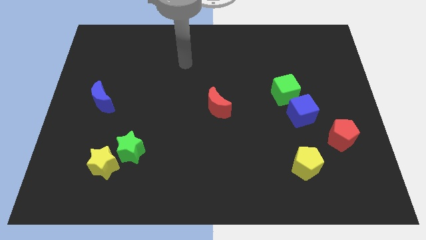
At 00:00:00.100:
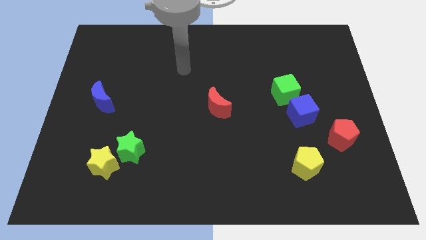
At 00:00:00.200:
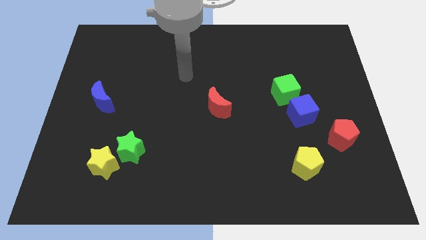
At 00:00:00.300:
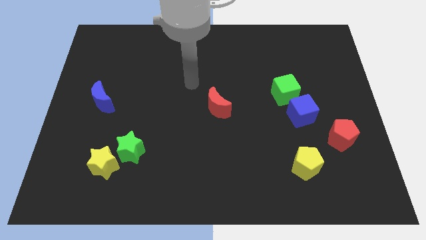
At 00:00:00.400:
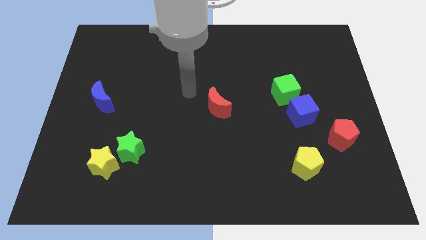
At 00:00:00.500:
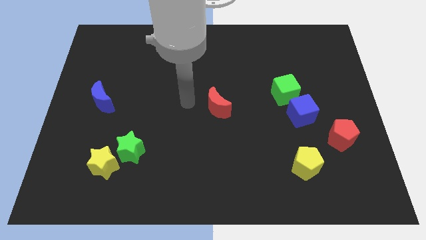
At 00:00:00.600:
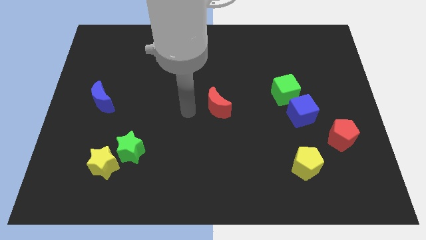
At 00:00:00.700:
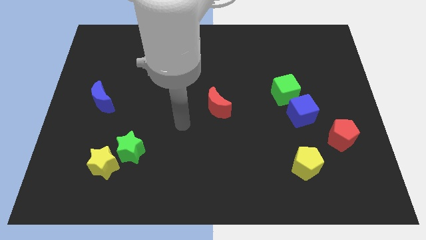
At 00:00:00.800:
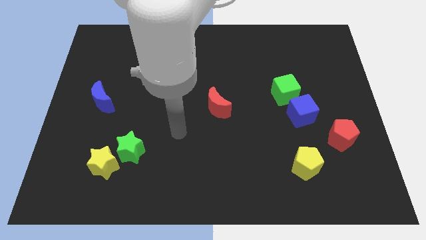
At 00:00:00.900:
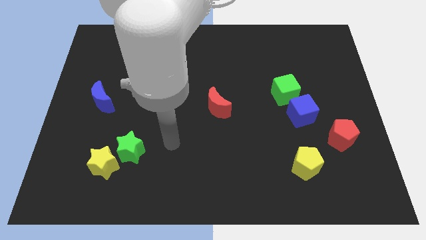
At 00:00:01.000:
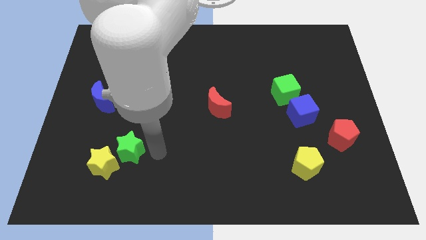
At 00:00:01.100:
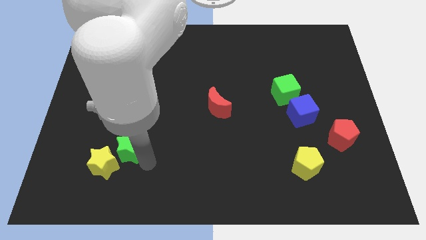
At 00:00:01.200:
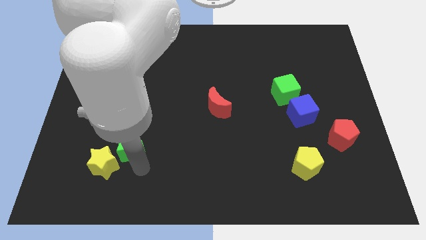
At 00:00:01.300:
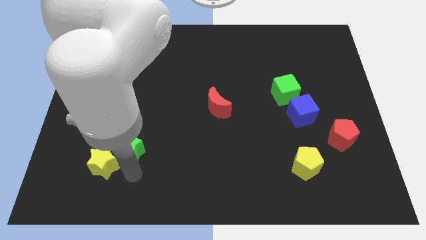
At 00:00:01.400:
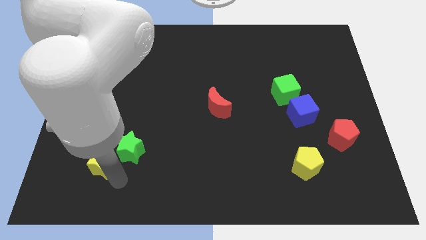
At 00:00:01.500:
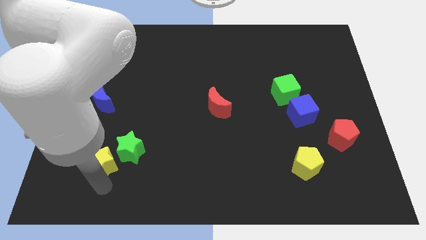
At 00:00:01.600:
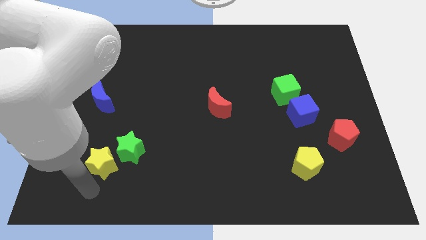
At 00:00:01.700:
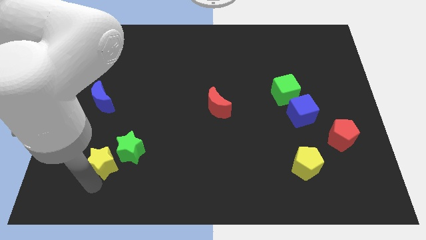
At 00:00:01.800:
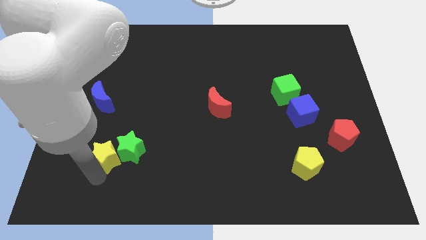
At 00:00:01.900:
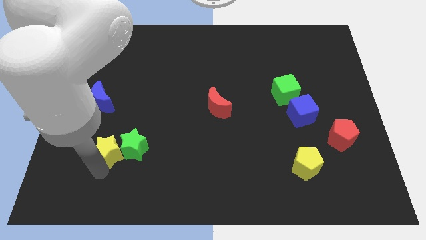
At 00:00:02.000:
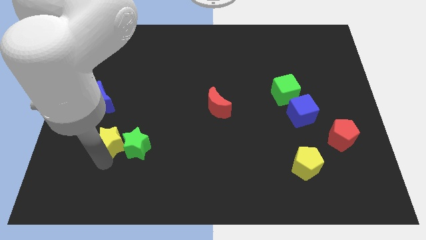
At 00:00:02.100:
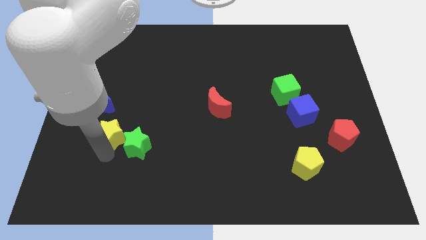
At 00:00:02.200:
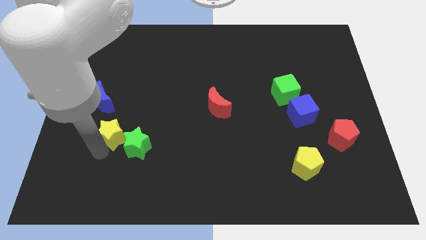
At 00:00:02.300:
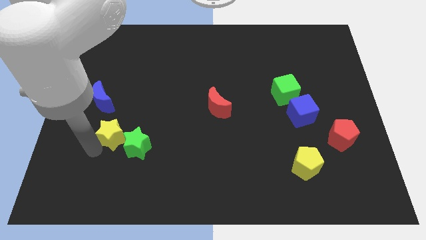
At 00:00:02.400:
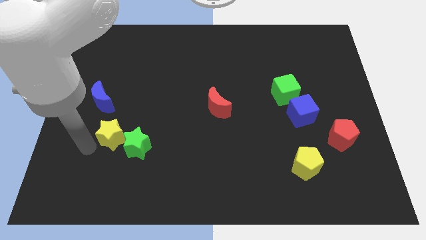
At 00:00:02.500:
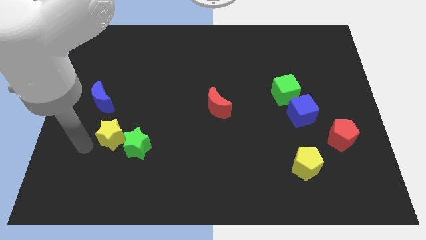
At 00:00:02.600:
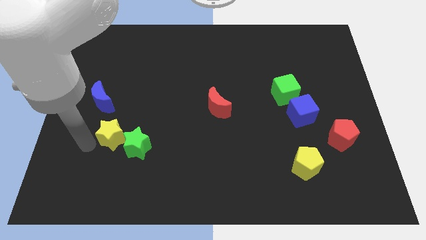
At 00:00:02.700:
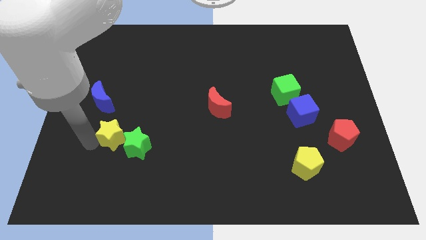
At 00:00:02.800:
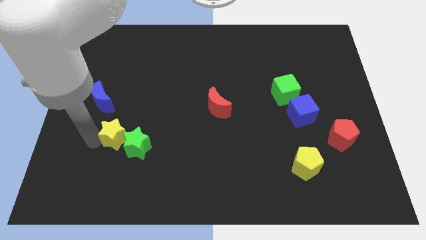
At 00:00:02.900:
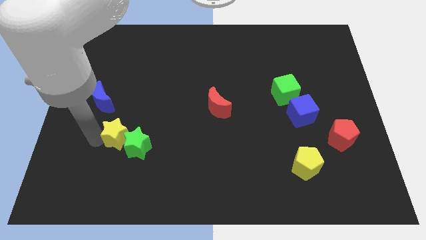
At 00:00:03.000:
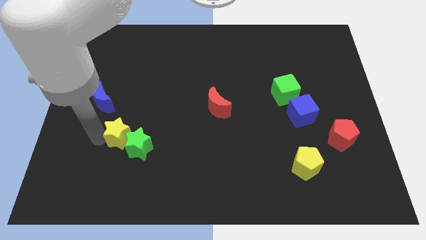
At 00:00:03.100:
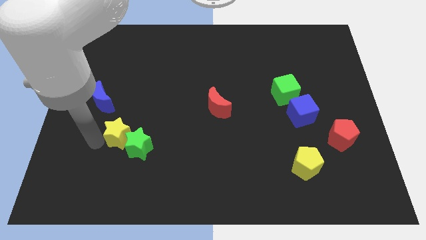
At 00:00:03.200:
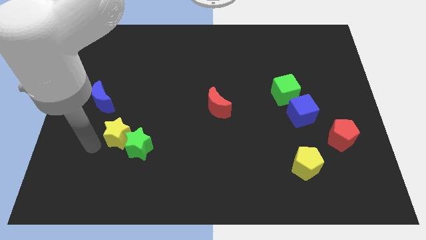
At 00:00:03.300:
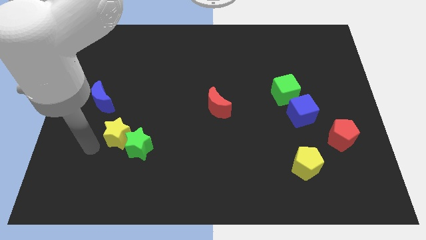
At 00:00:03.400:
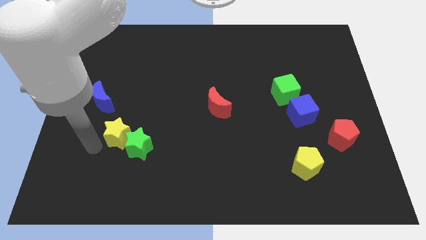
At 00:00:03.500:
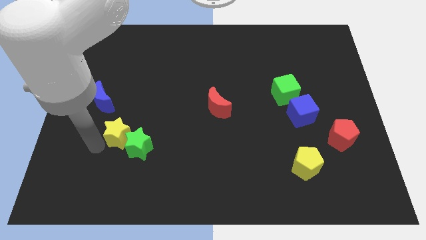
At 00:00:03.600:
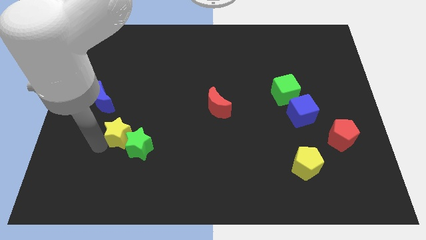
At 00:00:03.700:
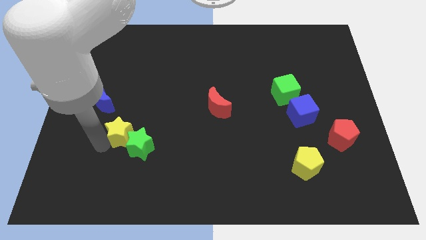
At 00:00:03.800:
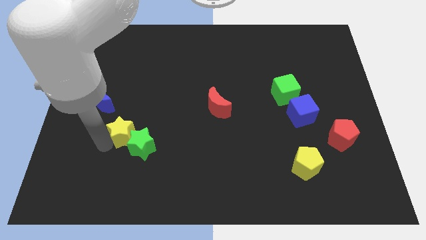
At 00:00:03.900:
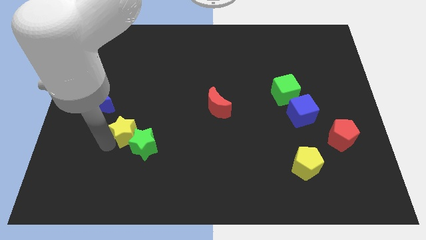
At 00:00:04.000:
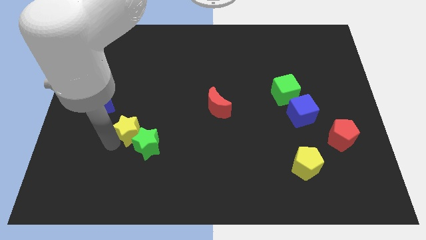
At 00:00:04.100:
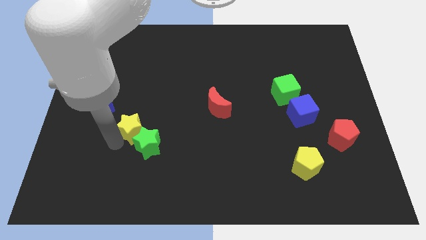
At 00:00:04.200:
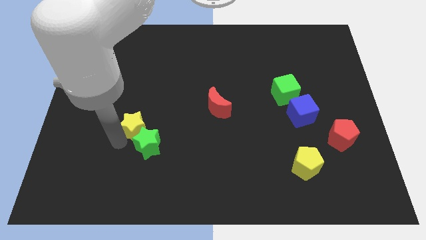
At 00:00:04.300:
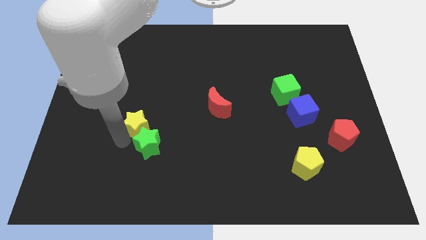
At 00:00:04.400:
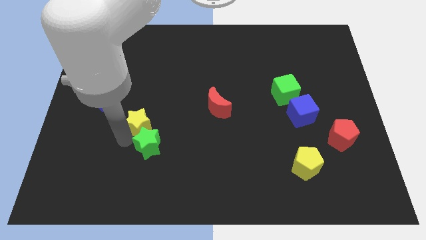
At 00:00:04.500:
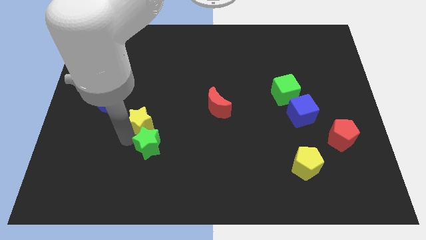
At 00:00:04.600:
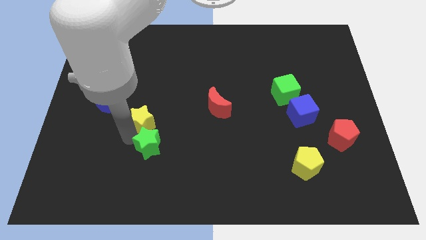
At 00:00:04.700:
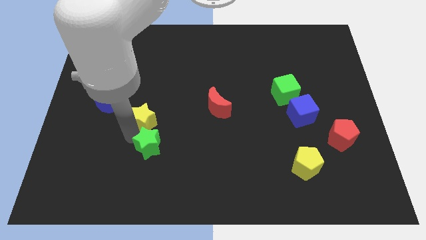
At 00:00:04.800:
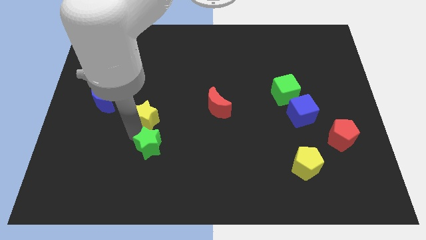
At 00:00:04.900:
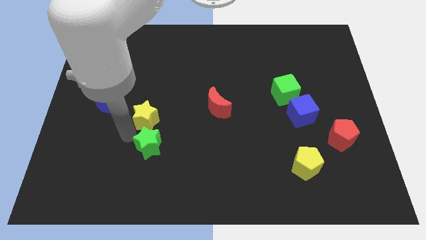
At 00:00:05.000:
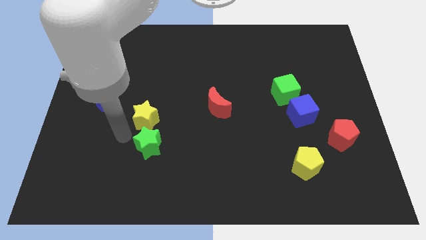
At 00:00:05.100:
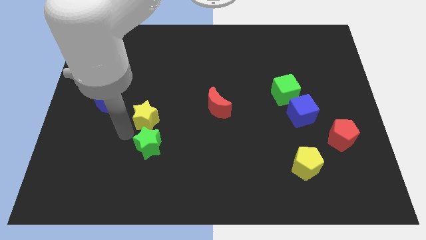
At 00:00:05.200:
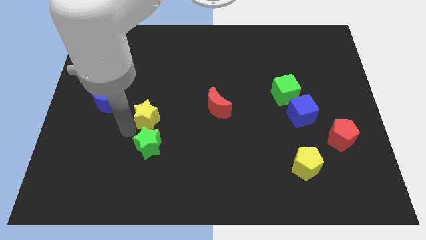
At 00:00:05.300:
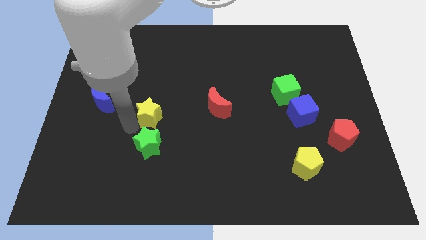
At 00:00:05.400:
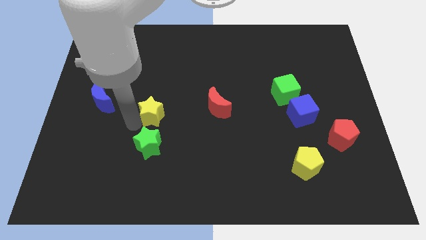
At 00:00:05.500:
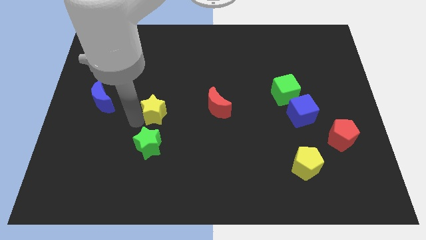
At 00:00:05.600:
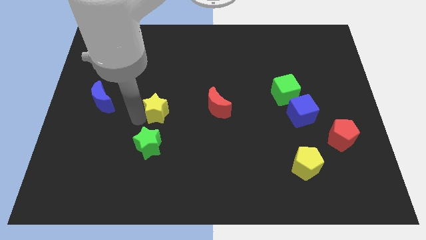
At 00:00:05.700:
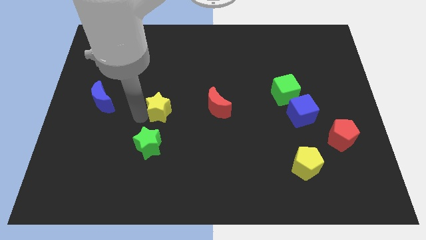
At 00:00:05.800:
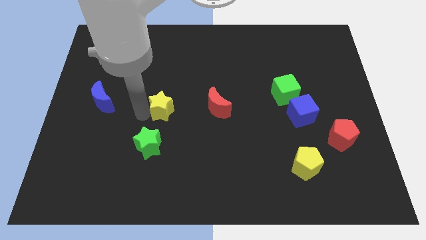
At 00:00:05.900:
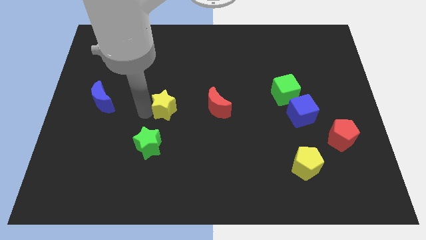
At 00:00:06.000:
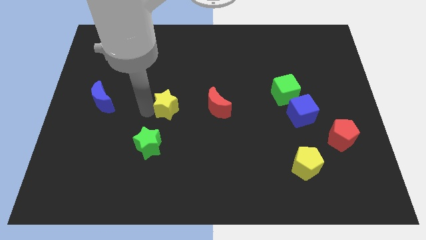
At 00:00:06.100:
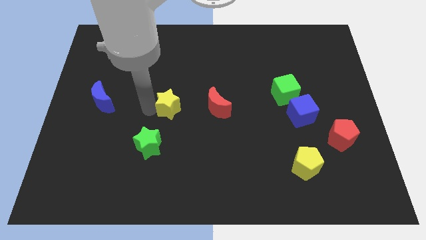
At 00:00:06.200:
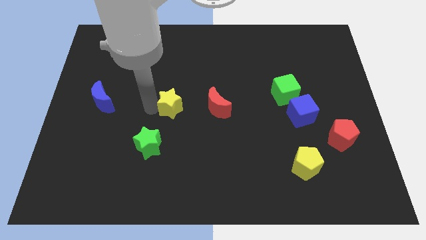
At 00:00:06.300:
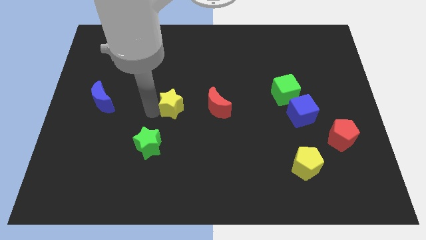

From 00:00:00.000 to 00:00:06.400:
push the yellow star up and right

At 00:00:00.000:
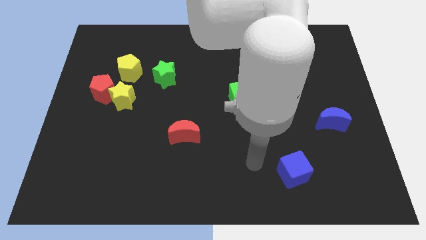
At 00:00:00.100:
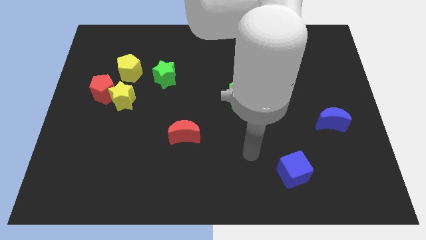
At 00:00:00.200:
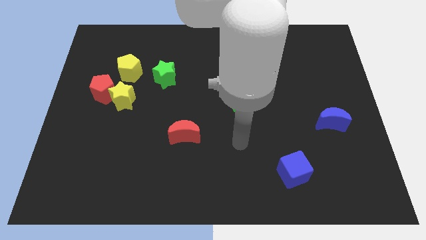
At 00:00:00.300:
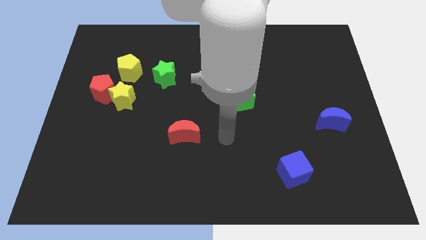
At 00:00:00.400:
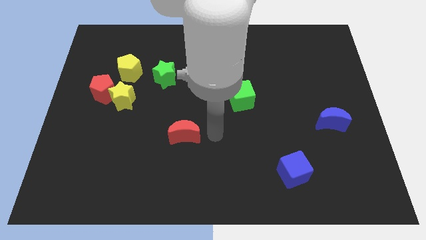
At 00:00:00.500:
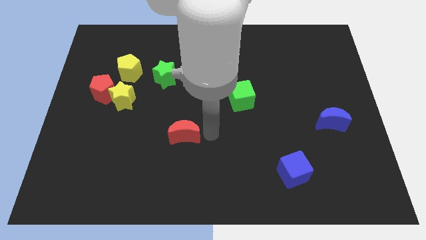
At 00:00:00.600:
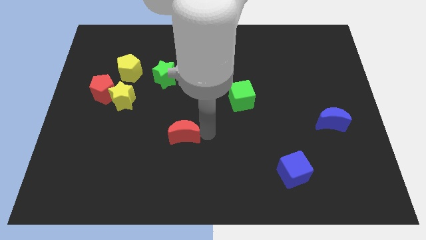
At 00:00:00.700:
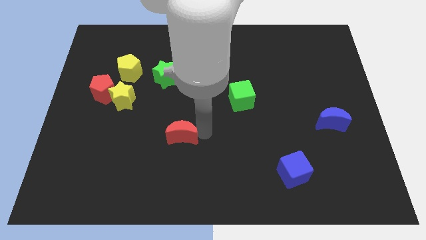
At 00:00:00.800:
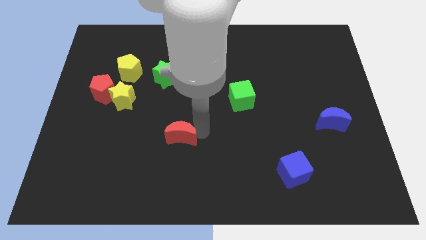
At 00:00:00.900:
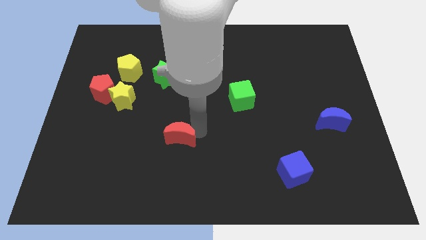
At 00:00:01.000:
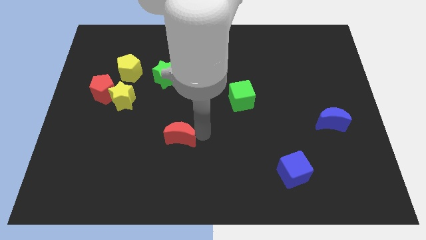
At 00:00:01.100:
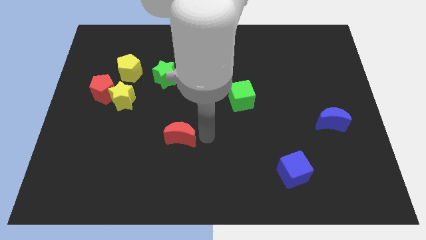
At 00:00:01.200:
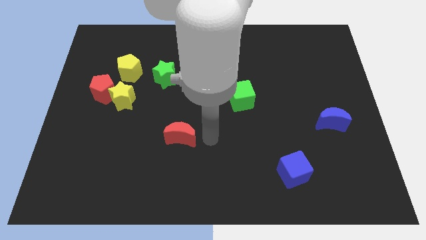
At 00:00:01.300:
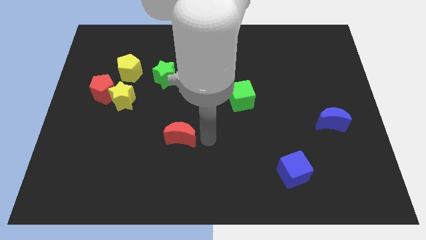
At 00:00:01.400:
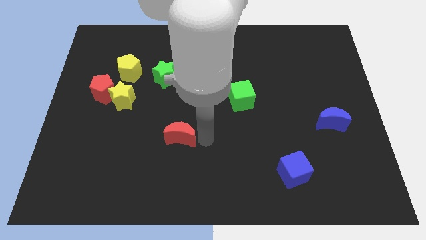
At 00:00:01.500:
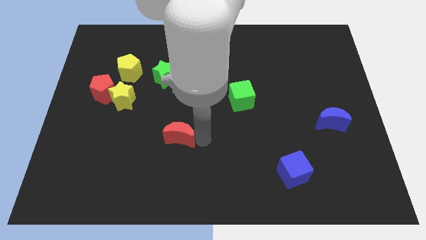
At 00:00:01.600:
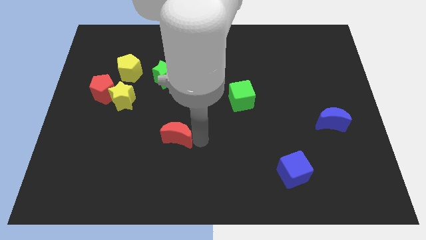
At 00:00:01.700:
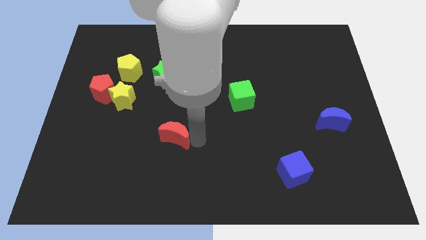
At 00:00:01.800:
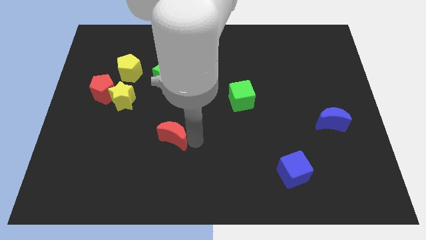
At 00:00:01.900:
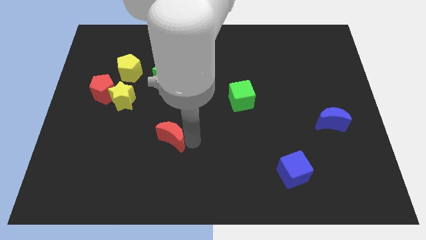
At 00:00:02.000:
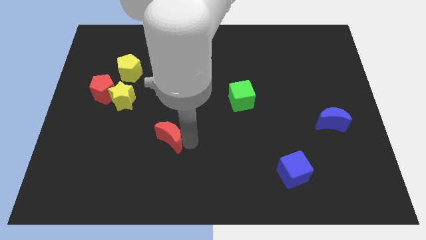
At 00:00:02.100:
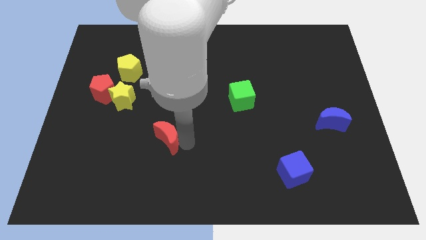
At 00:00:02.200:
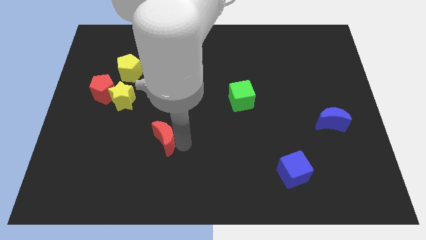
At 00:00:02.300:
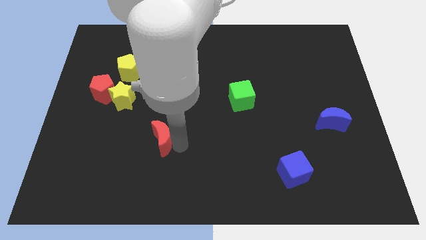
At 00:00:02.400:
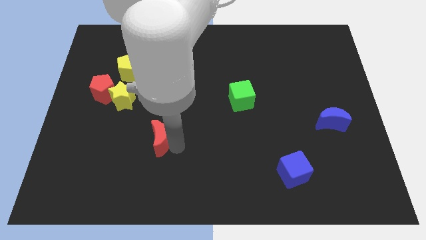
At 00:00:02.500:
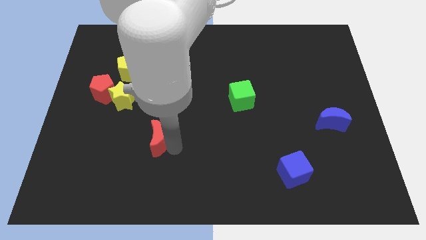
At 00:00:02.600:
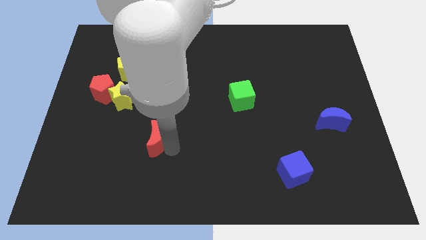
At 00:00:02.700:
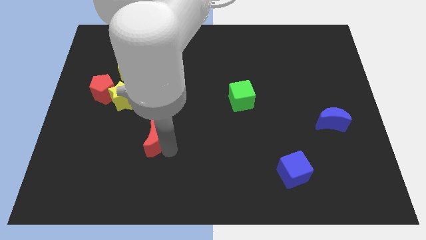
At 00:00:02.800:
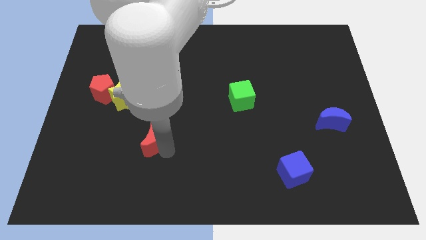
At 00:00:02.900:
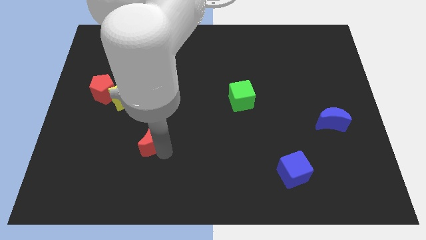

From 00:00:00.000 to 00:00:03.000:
push the red moon a bit left
